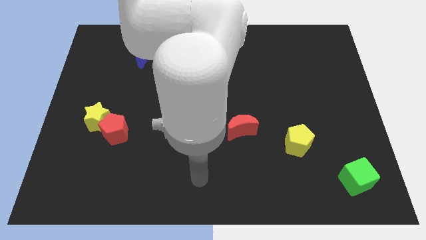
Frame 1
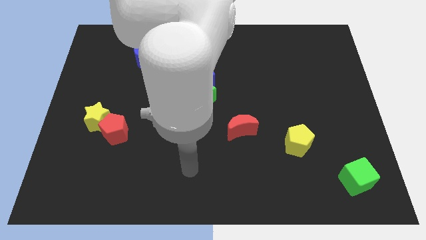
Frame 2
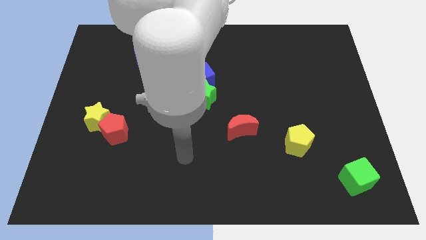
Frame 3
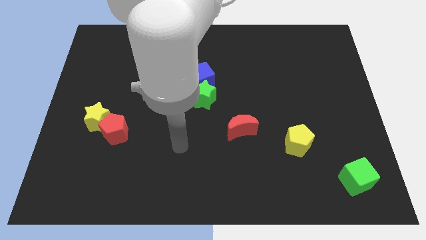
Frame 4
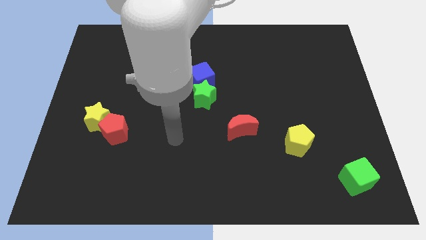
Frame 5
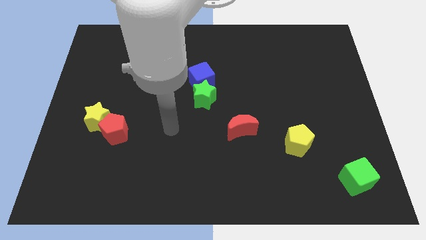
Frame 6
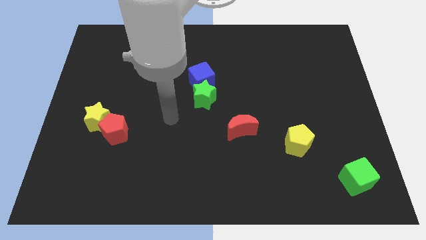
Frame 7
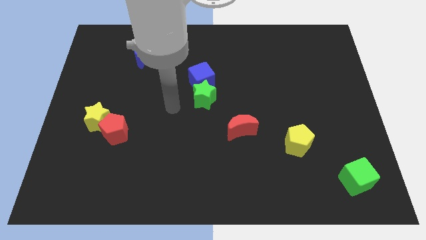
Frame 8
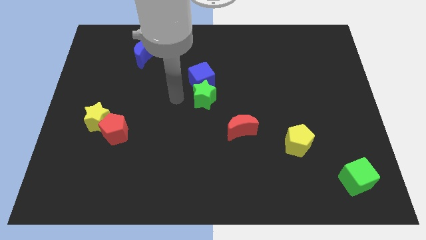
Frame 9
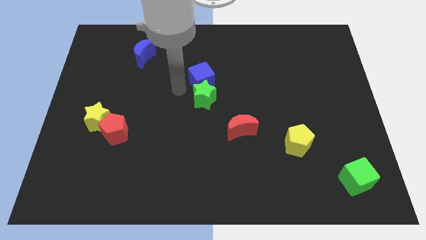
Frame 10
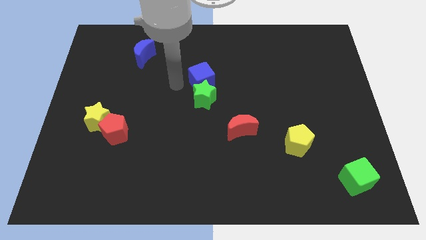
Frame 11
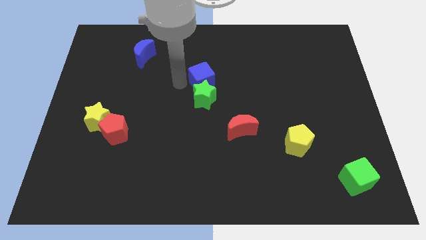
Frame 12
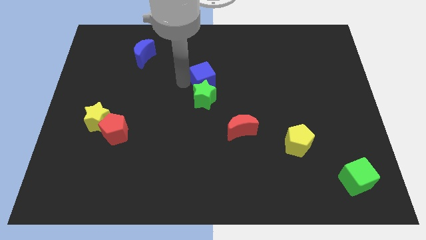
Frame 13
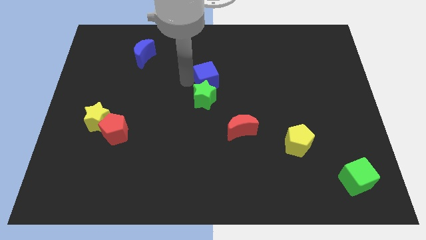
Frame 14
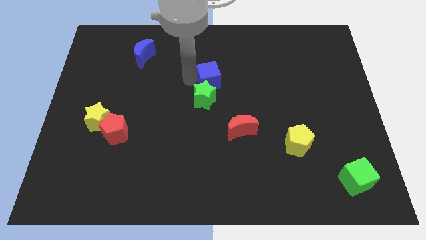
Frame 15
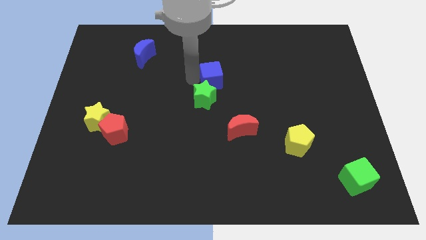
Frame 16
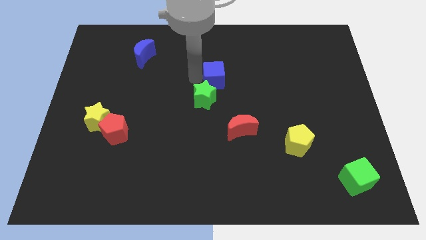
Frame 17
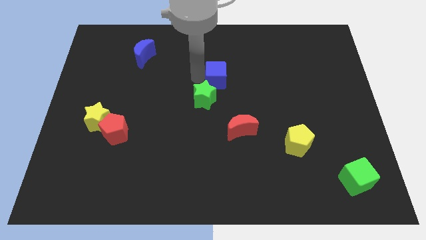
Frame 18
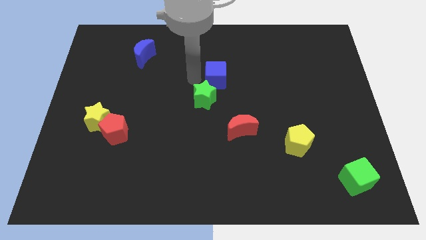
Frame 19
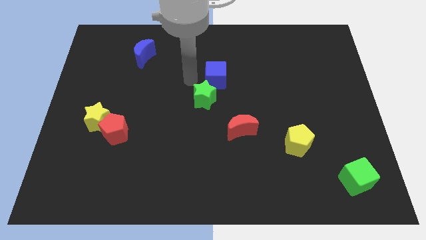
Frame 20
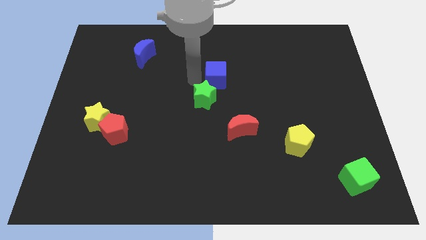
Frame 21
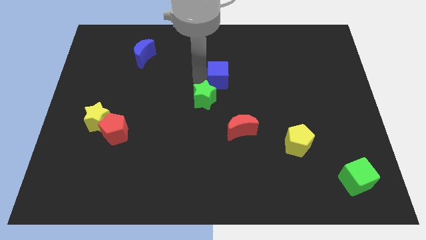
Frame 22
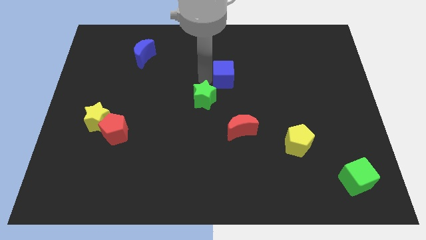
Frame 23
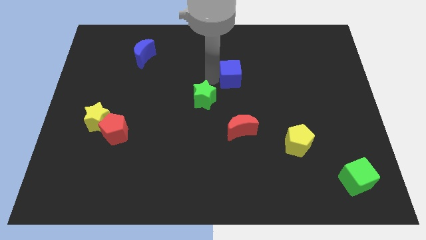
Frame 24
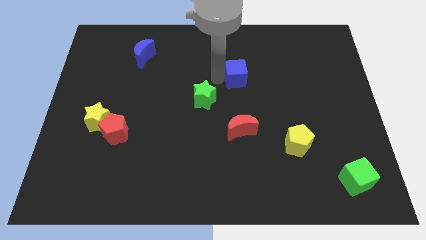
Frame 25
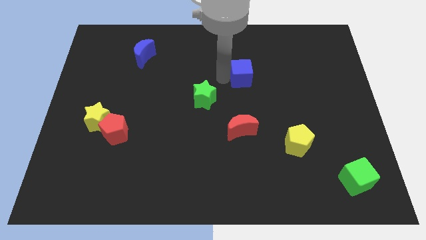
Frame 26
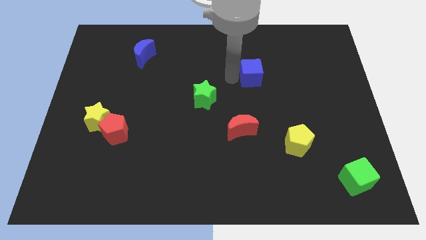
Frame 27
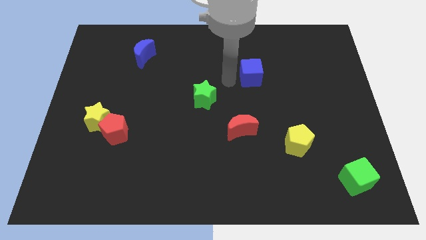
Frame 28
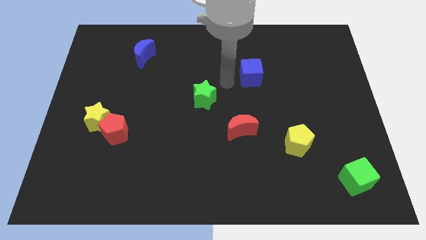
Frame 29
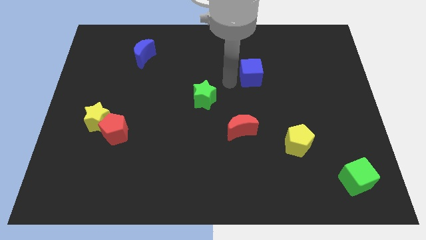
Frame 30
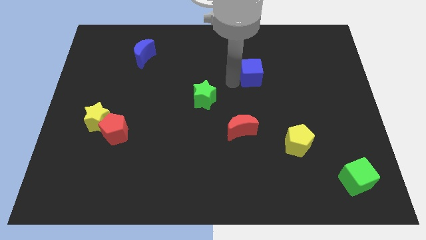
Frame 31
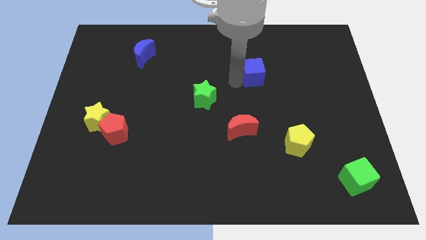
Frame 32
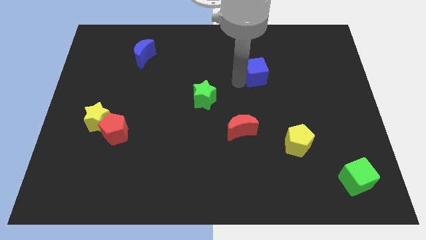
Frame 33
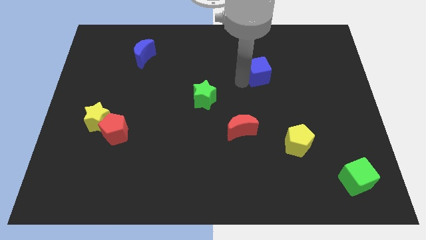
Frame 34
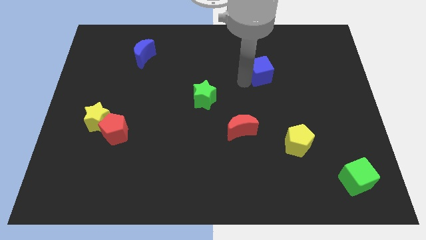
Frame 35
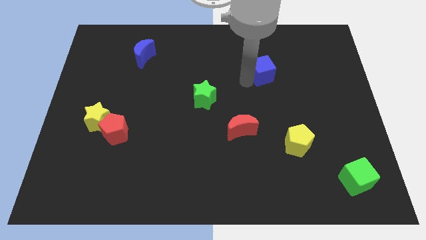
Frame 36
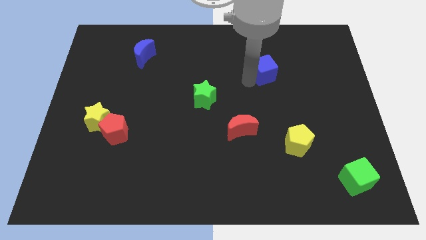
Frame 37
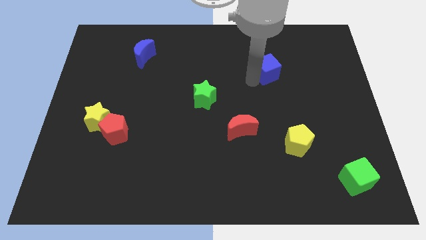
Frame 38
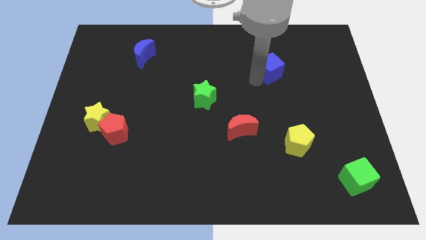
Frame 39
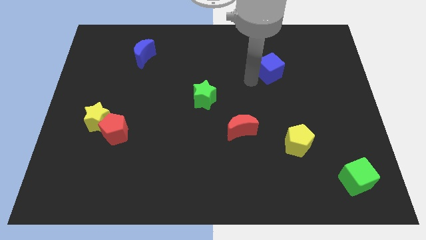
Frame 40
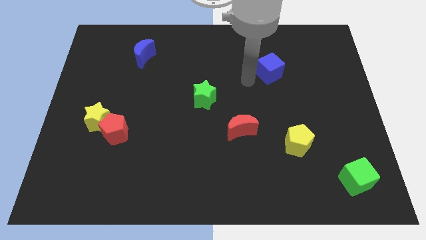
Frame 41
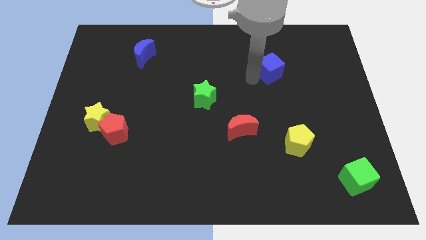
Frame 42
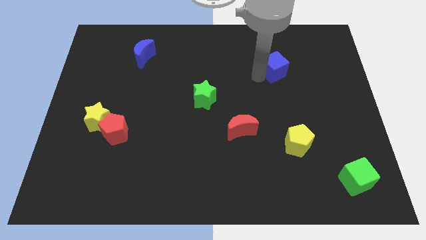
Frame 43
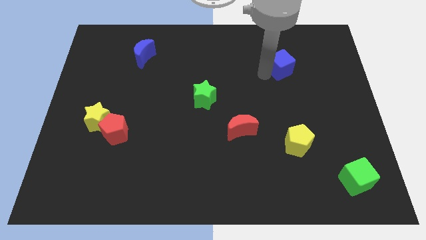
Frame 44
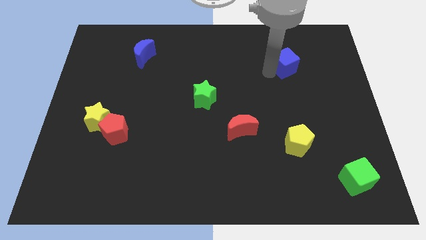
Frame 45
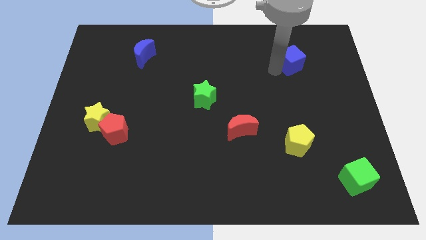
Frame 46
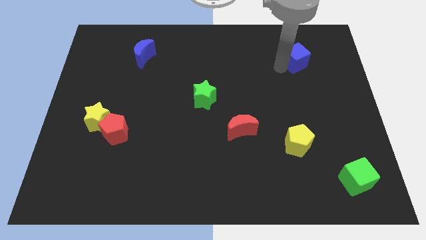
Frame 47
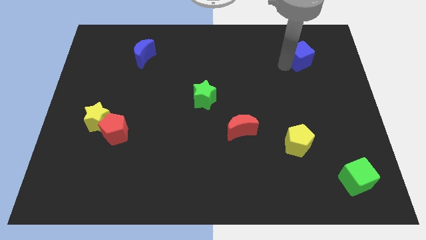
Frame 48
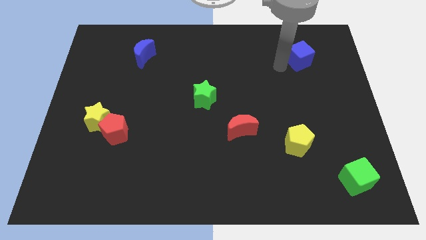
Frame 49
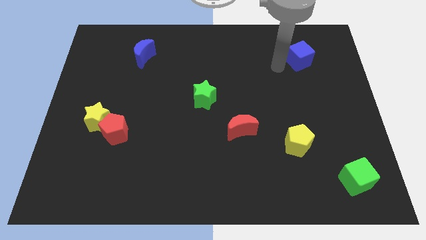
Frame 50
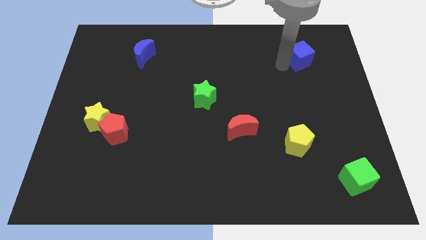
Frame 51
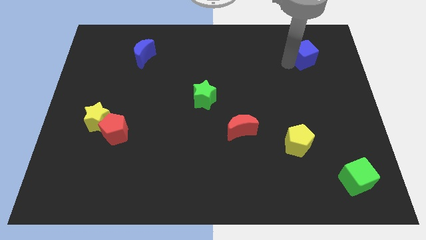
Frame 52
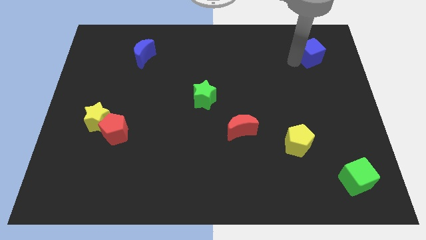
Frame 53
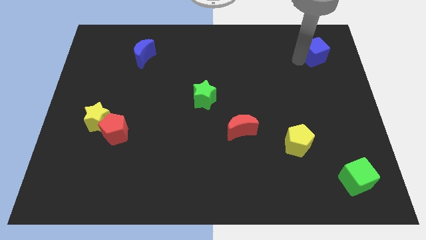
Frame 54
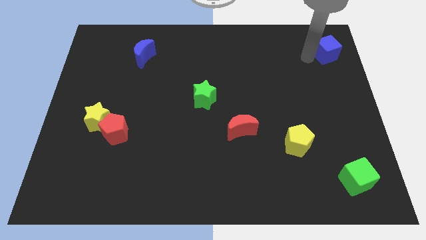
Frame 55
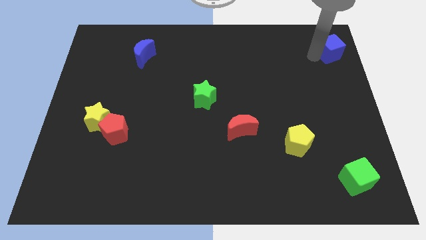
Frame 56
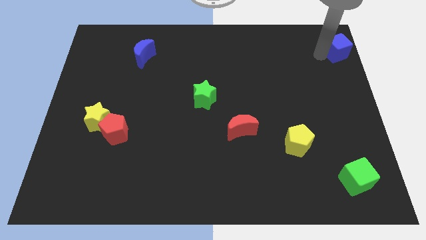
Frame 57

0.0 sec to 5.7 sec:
move the blue cube to the upper right corner

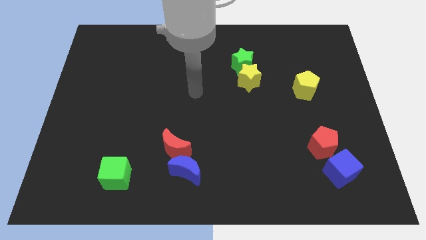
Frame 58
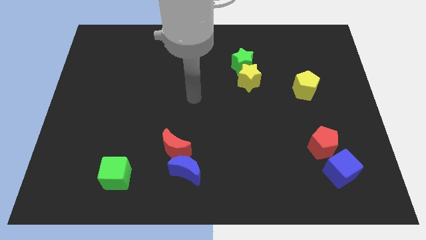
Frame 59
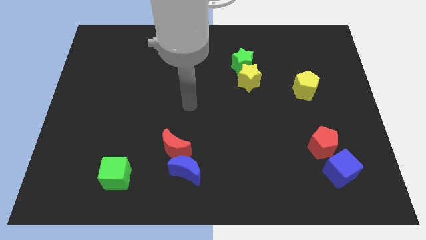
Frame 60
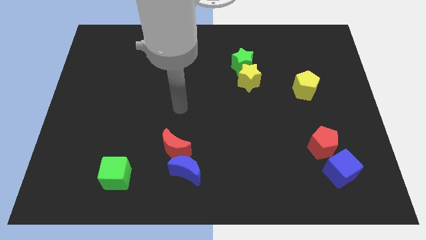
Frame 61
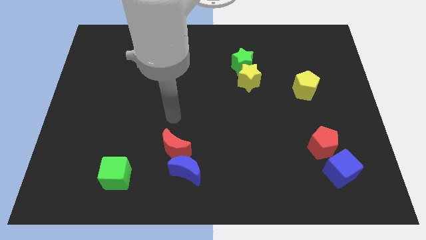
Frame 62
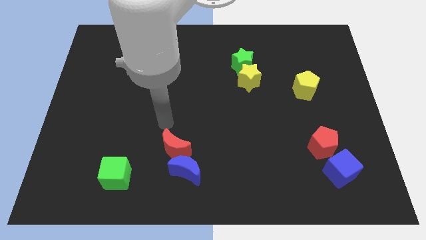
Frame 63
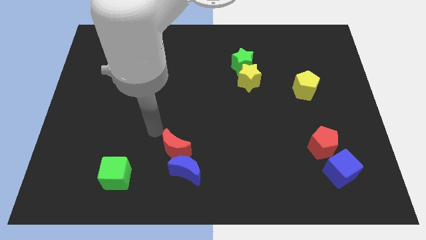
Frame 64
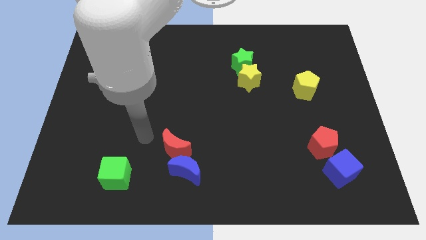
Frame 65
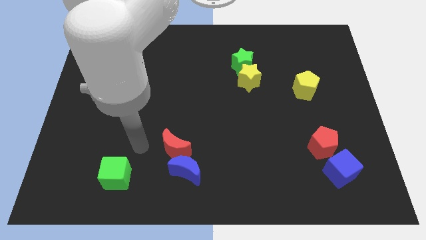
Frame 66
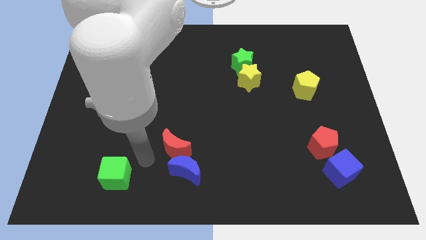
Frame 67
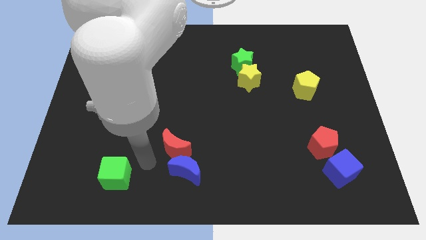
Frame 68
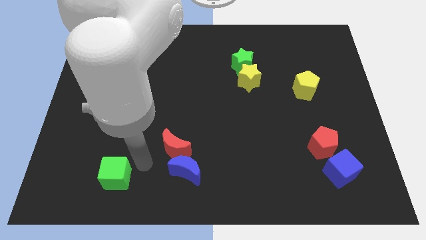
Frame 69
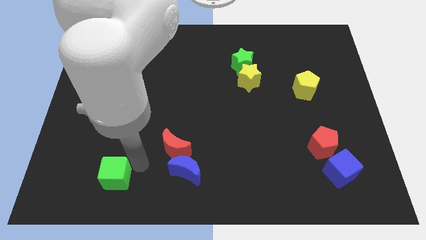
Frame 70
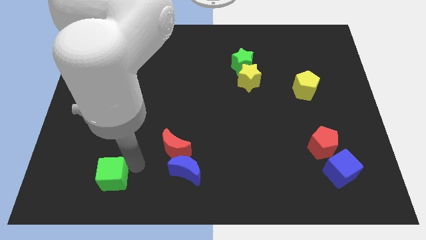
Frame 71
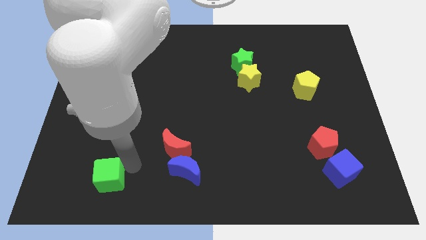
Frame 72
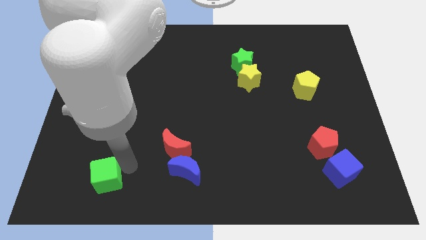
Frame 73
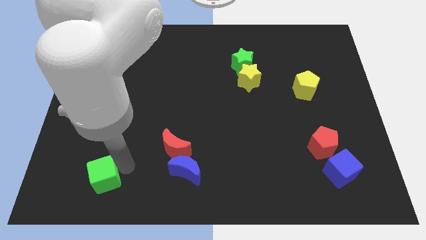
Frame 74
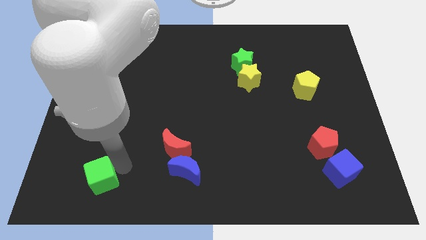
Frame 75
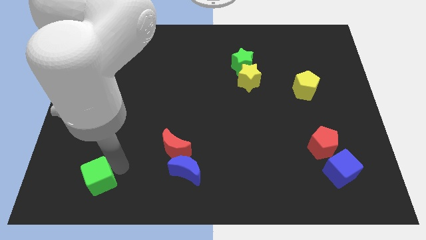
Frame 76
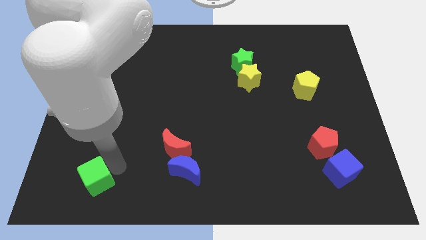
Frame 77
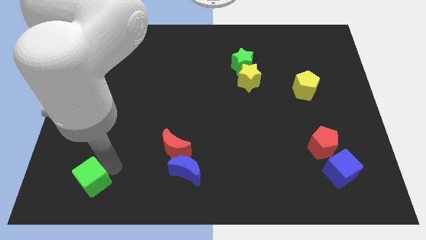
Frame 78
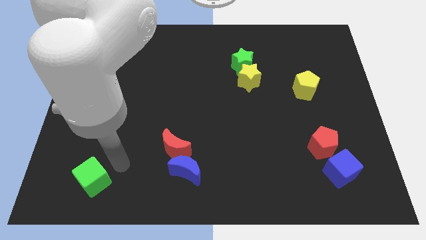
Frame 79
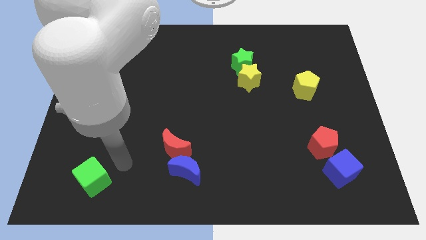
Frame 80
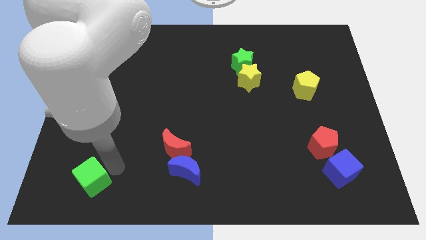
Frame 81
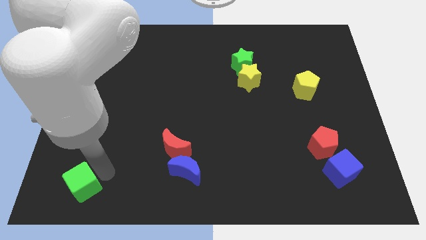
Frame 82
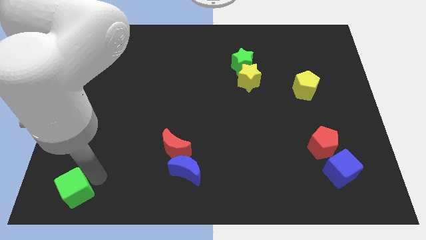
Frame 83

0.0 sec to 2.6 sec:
put the green cube to the bottom left corner
